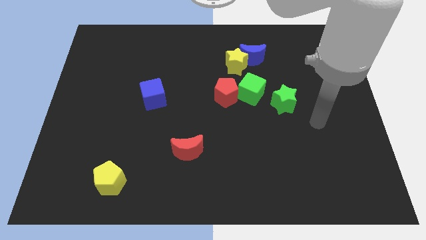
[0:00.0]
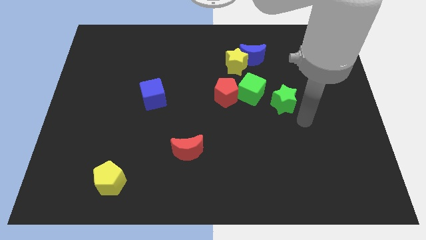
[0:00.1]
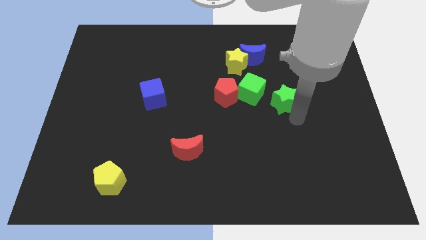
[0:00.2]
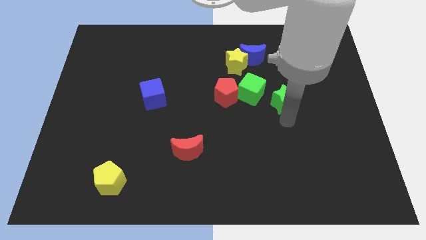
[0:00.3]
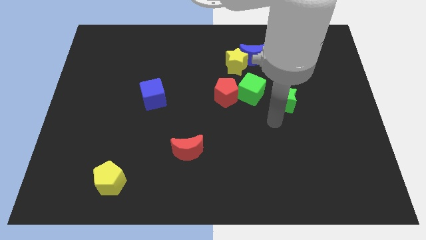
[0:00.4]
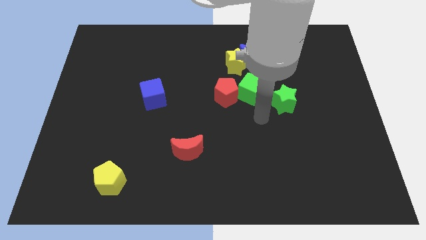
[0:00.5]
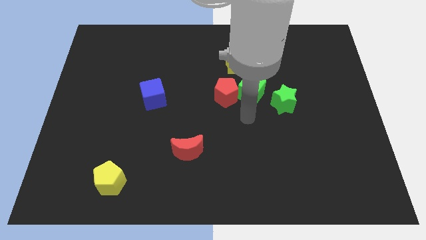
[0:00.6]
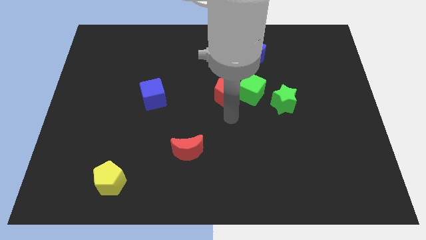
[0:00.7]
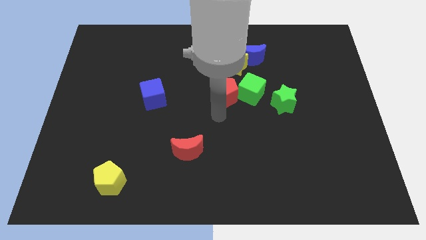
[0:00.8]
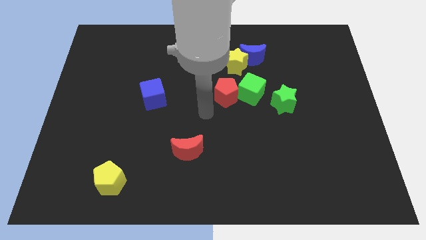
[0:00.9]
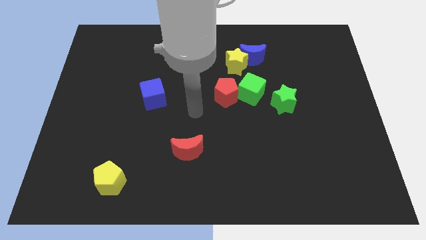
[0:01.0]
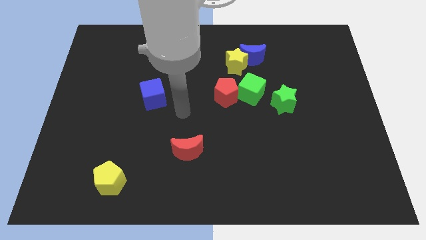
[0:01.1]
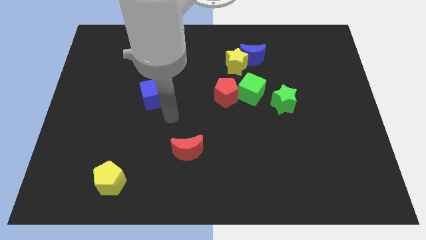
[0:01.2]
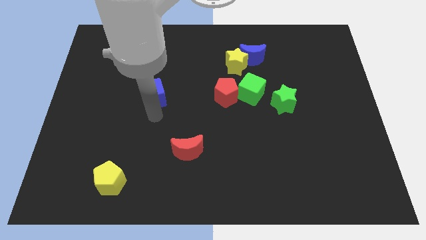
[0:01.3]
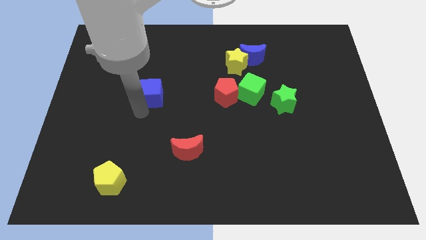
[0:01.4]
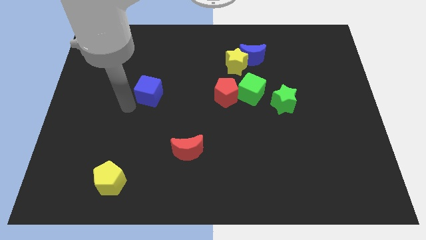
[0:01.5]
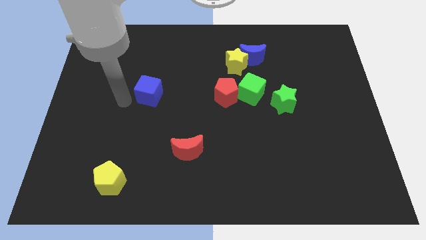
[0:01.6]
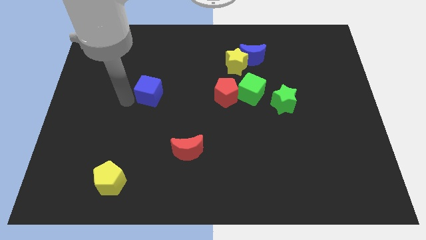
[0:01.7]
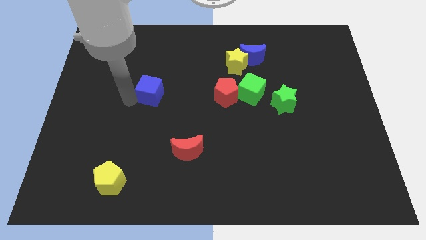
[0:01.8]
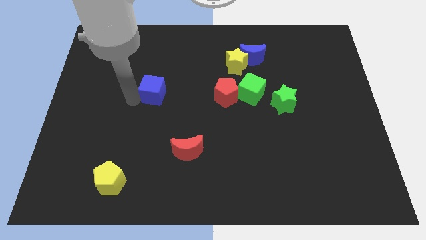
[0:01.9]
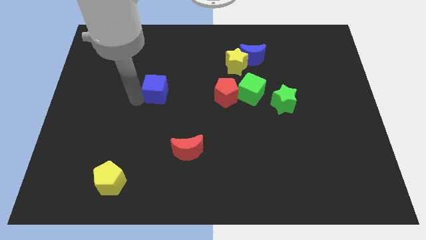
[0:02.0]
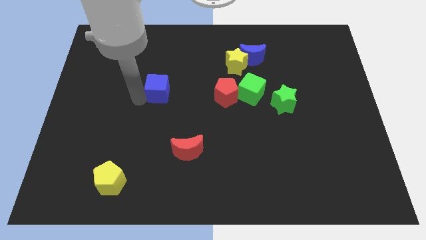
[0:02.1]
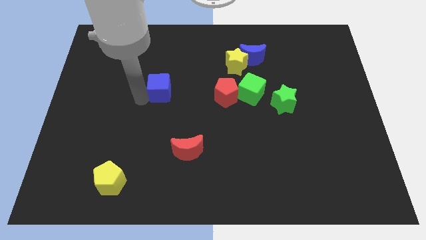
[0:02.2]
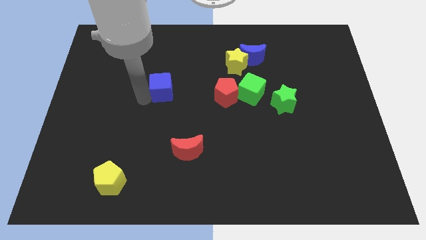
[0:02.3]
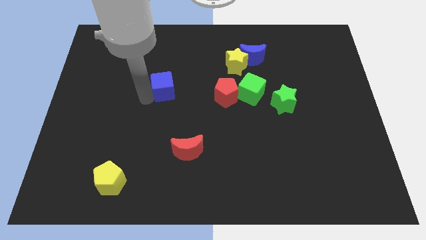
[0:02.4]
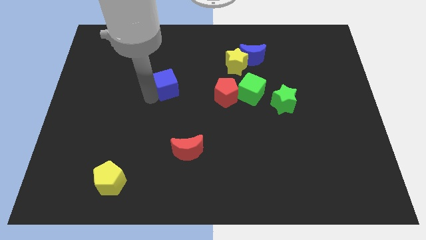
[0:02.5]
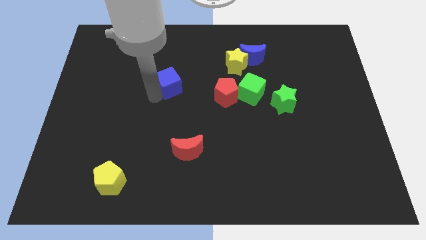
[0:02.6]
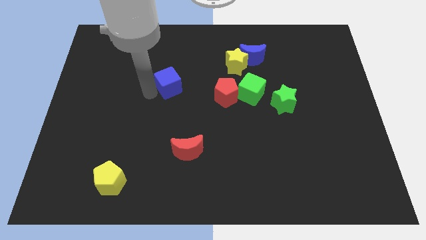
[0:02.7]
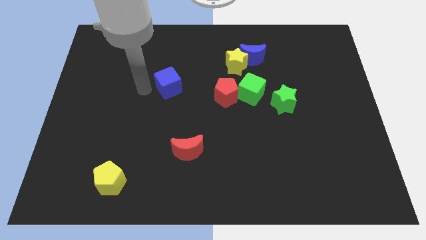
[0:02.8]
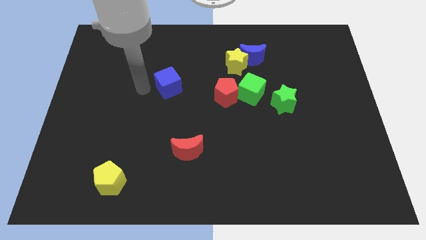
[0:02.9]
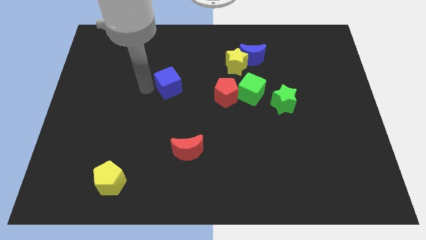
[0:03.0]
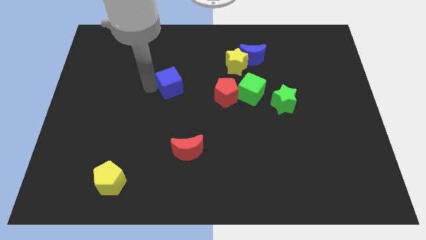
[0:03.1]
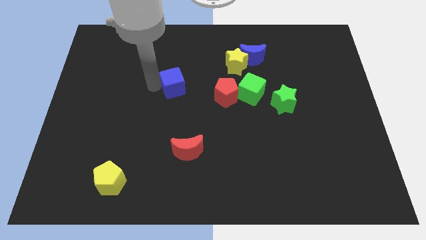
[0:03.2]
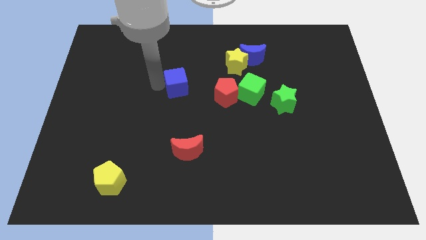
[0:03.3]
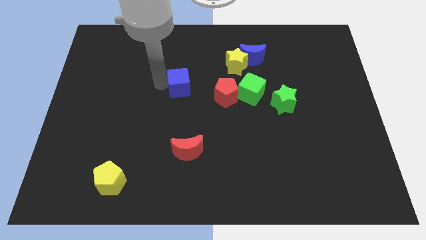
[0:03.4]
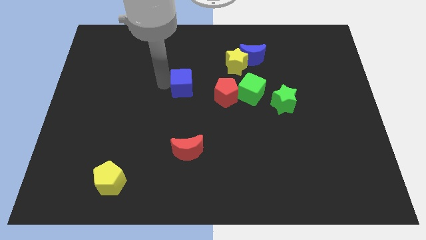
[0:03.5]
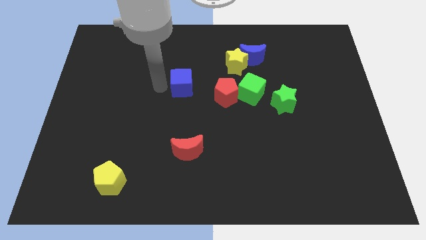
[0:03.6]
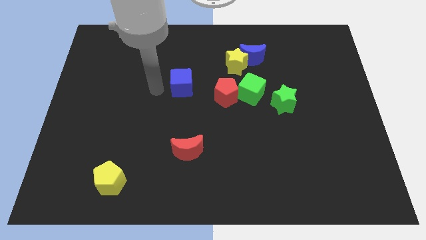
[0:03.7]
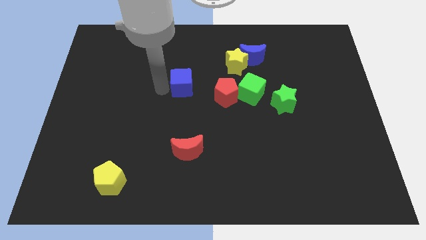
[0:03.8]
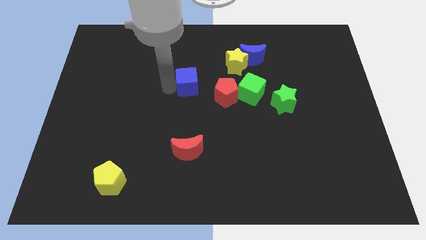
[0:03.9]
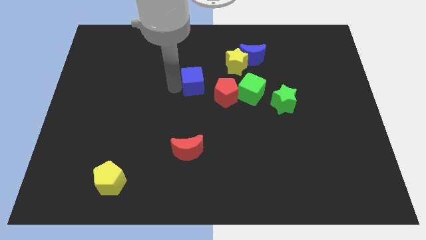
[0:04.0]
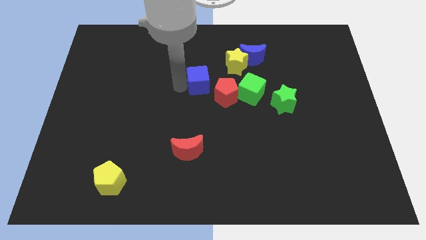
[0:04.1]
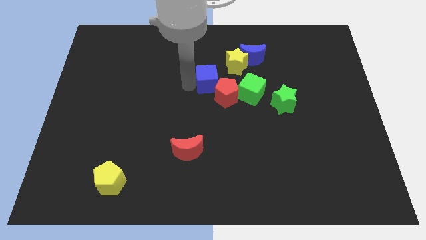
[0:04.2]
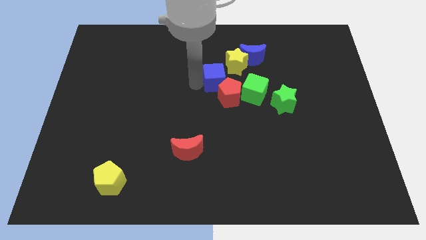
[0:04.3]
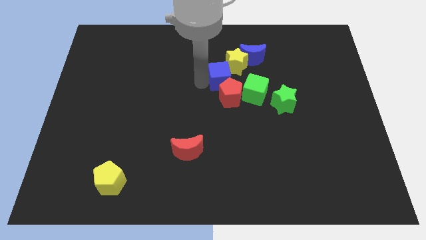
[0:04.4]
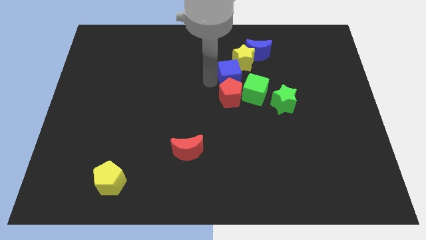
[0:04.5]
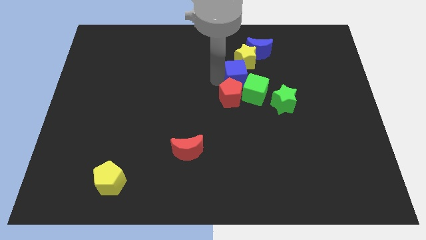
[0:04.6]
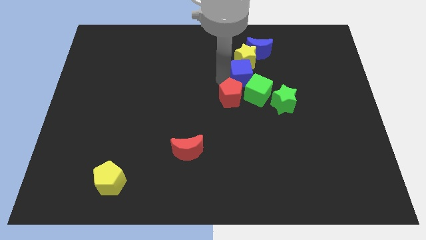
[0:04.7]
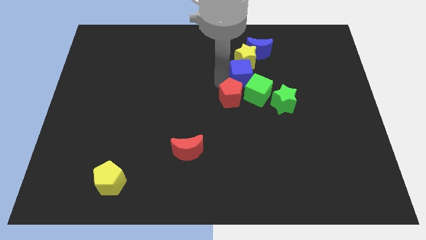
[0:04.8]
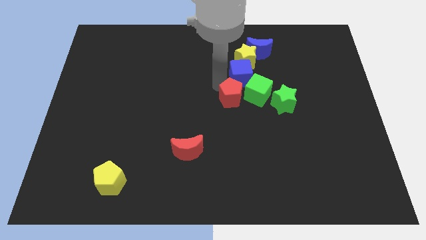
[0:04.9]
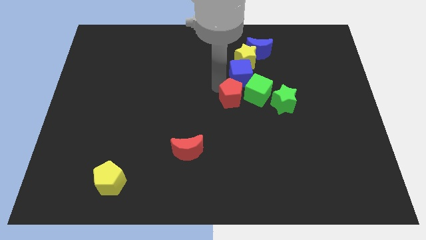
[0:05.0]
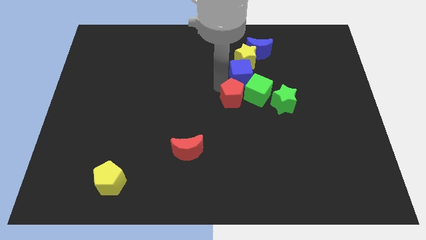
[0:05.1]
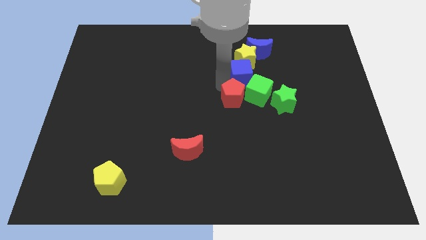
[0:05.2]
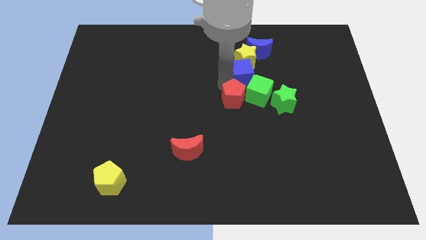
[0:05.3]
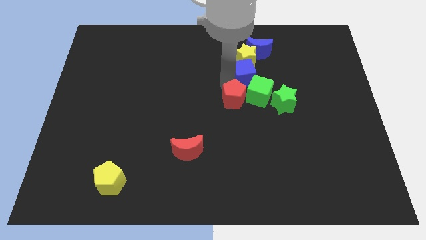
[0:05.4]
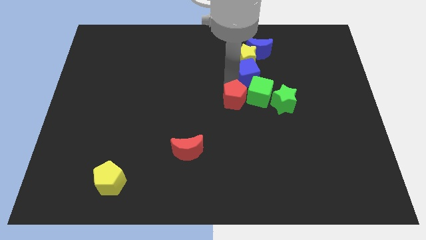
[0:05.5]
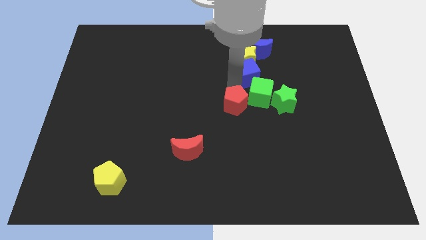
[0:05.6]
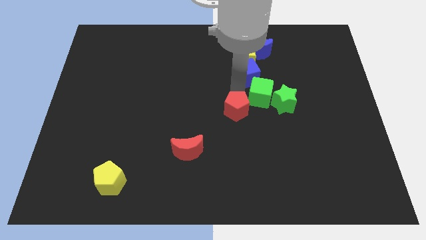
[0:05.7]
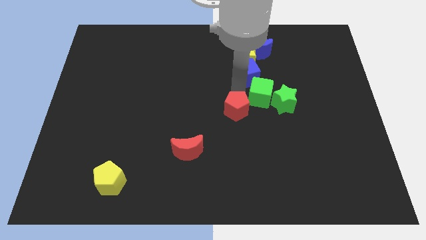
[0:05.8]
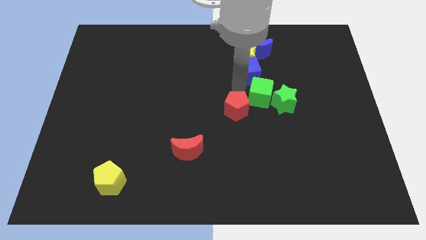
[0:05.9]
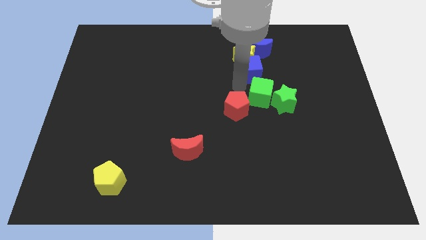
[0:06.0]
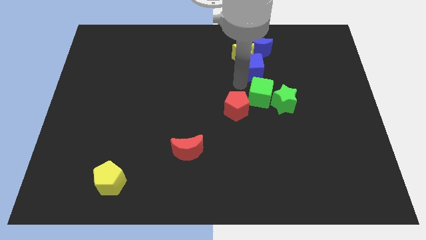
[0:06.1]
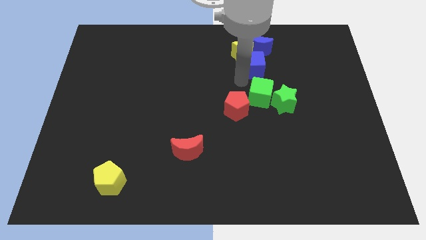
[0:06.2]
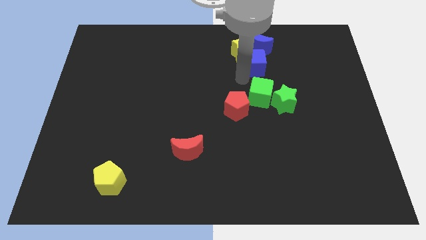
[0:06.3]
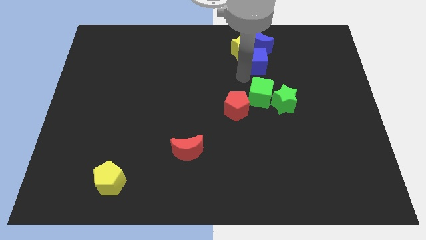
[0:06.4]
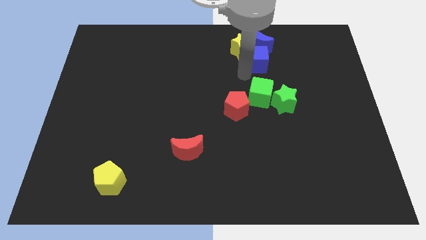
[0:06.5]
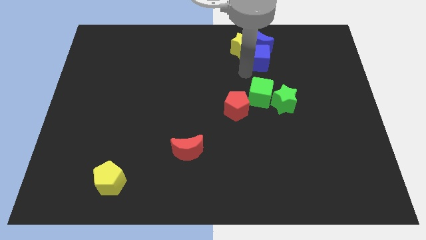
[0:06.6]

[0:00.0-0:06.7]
move the blue cube to the blue moon

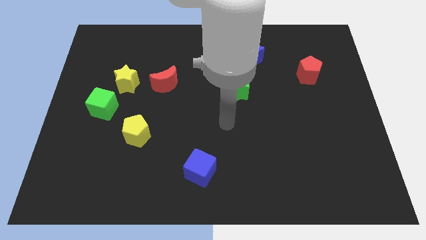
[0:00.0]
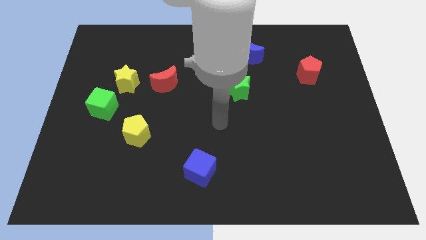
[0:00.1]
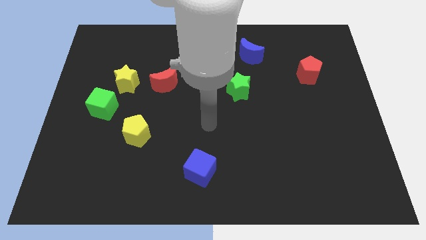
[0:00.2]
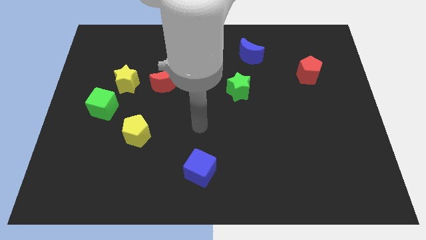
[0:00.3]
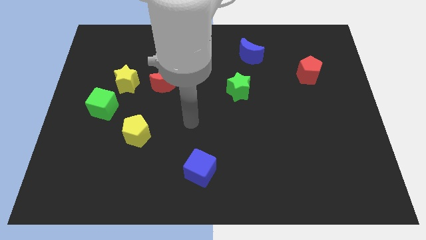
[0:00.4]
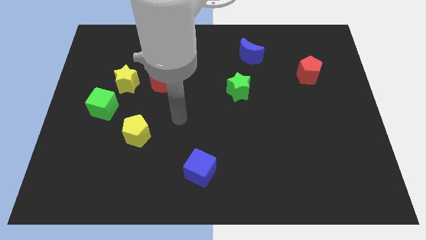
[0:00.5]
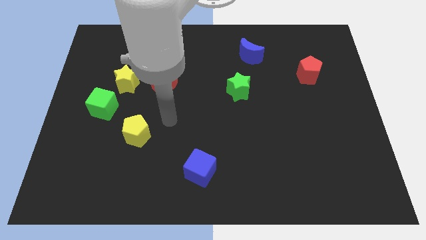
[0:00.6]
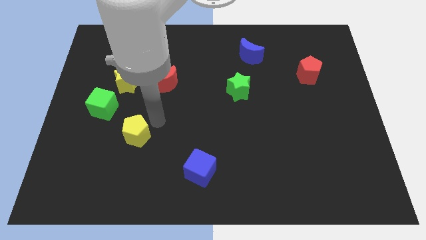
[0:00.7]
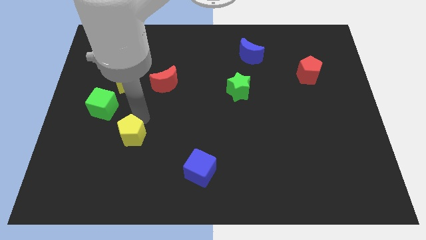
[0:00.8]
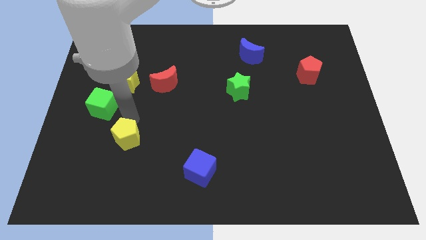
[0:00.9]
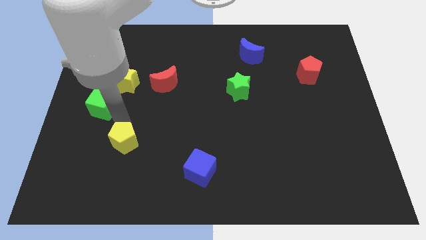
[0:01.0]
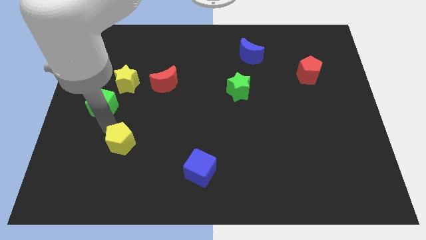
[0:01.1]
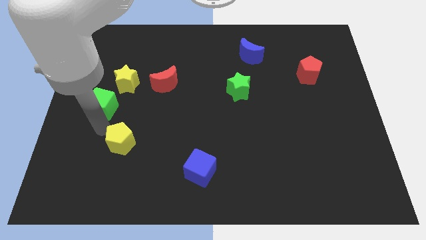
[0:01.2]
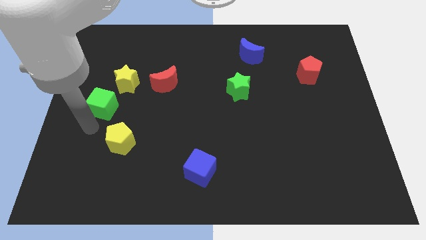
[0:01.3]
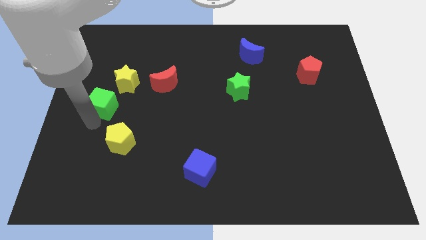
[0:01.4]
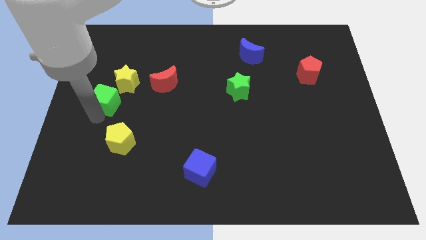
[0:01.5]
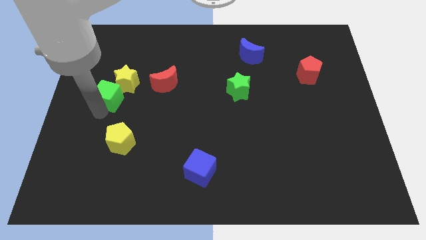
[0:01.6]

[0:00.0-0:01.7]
push the green cube next to the yellow star

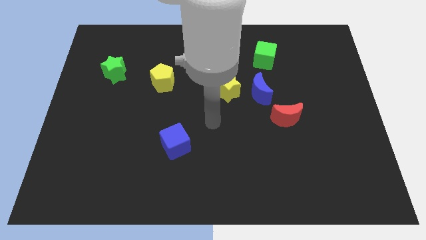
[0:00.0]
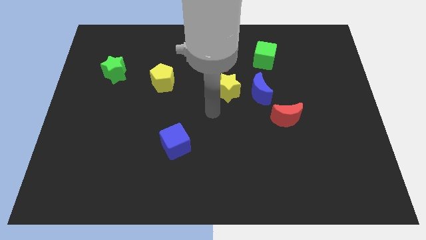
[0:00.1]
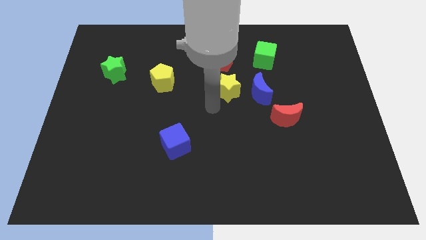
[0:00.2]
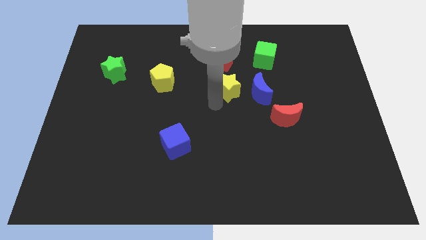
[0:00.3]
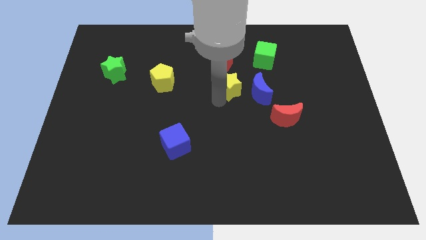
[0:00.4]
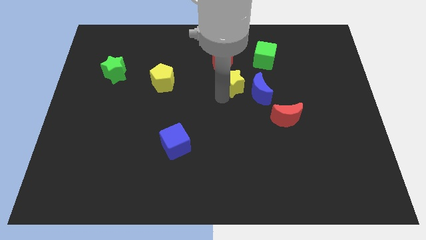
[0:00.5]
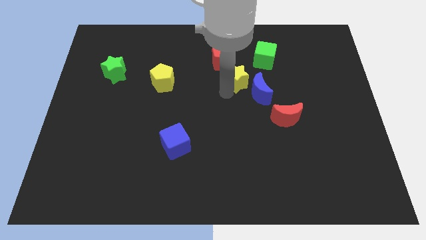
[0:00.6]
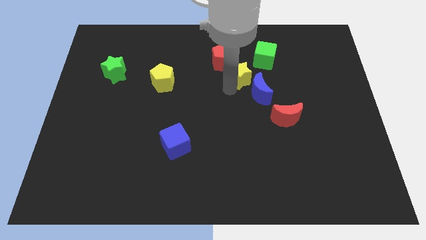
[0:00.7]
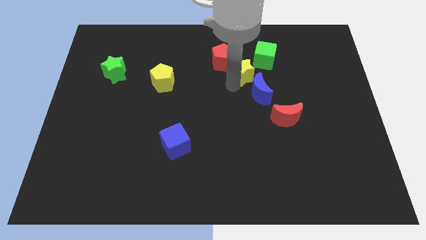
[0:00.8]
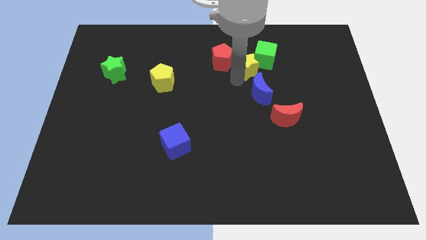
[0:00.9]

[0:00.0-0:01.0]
push the yellow star close to the green cube
